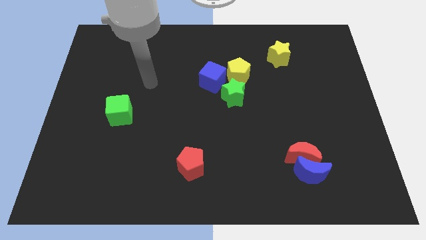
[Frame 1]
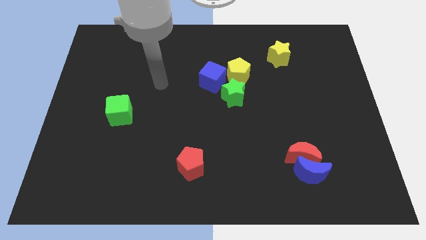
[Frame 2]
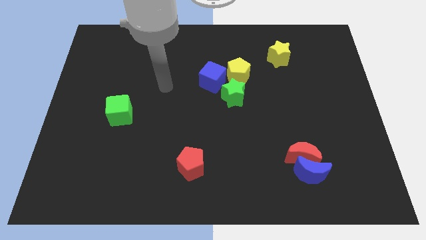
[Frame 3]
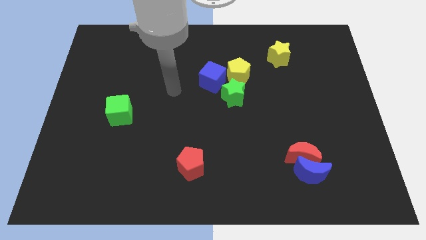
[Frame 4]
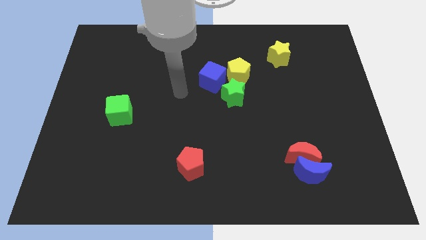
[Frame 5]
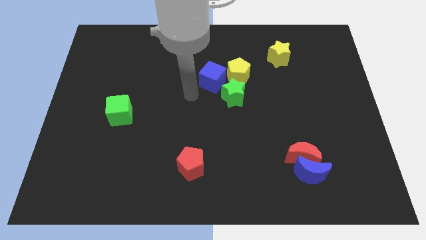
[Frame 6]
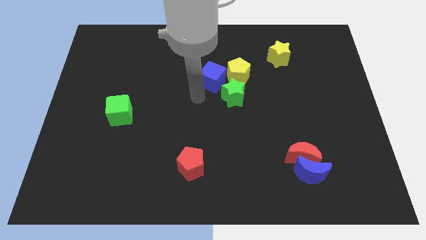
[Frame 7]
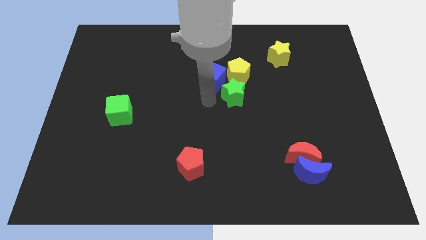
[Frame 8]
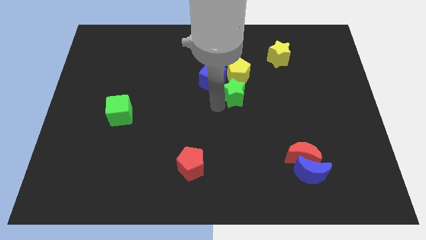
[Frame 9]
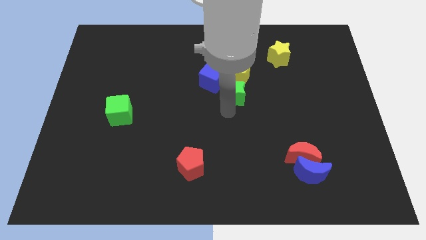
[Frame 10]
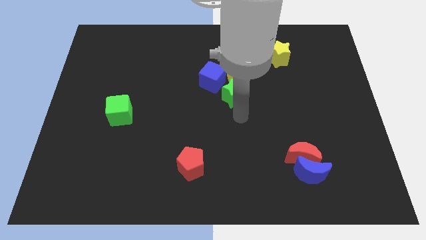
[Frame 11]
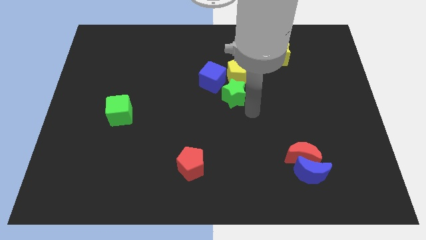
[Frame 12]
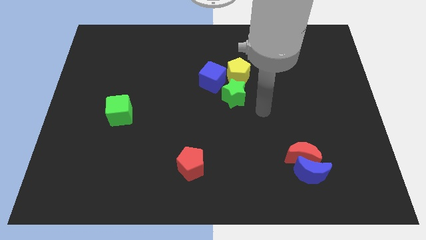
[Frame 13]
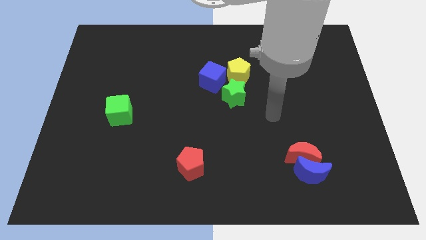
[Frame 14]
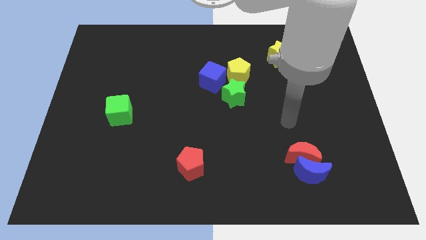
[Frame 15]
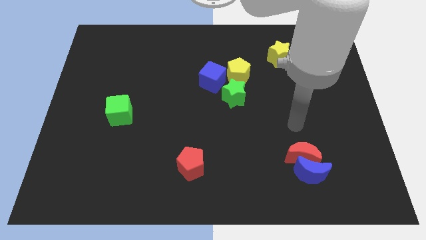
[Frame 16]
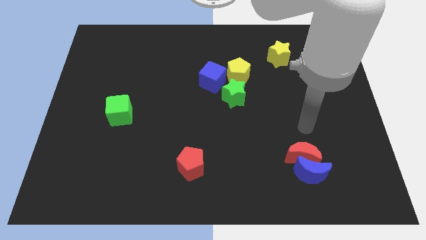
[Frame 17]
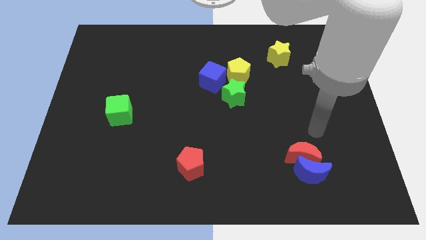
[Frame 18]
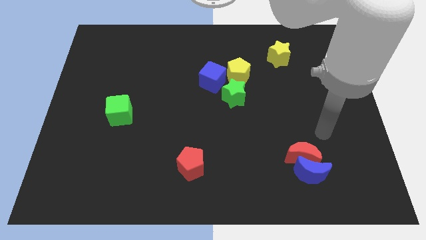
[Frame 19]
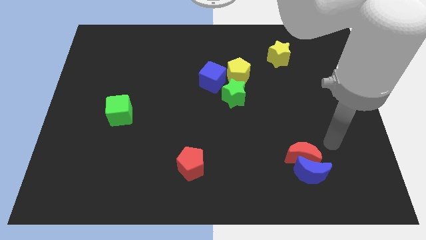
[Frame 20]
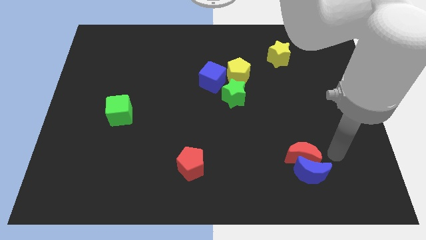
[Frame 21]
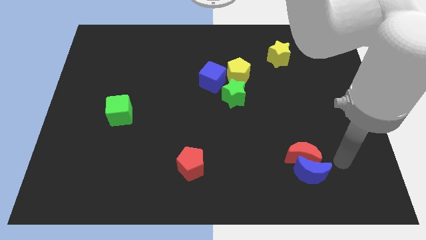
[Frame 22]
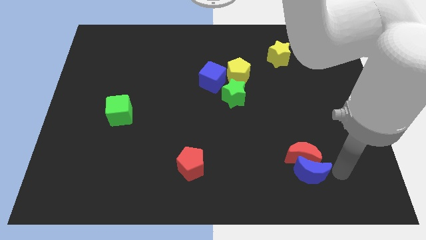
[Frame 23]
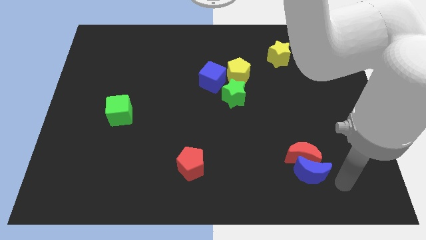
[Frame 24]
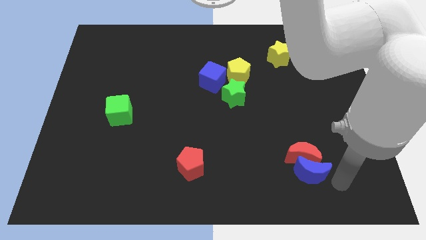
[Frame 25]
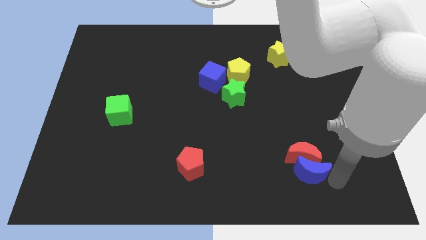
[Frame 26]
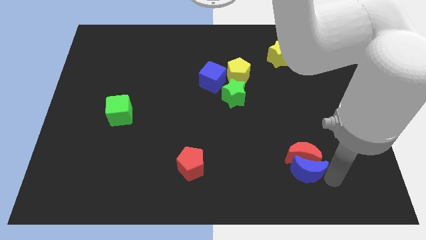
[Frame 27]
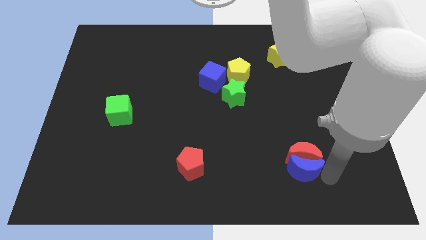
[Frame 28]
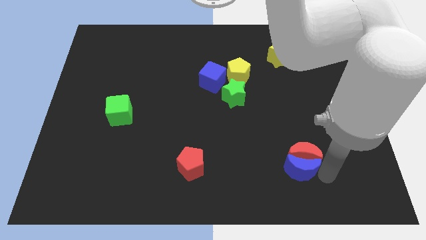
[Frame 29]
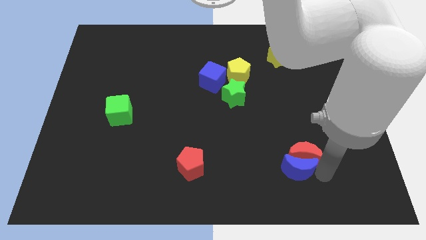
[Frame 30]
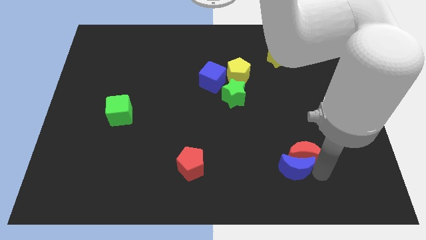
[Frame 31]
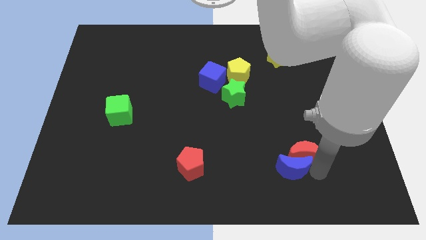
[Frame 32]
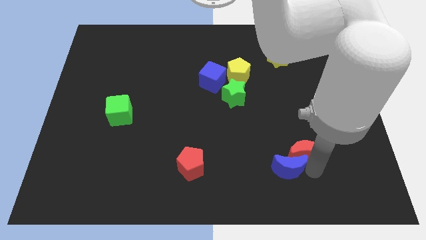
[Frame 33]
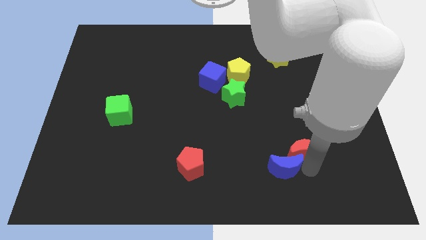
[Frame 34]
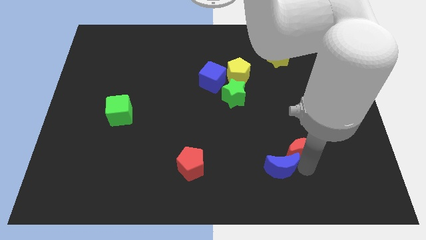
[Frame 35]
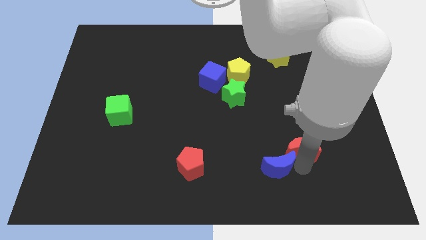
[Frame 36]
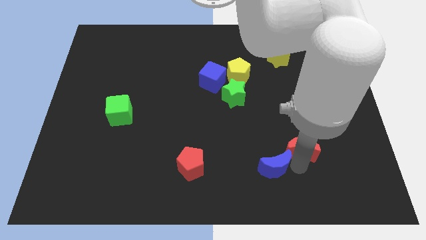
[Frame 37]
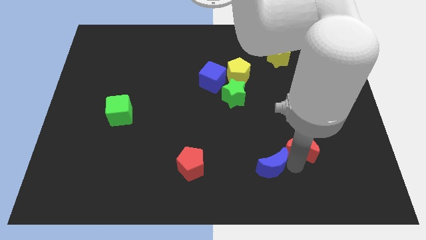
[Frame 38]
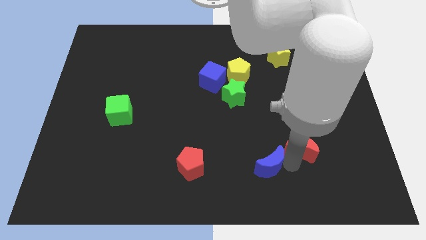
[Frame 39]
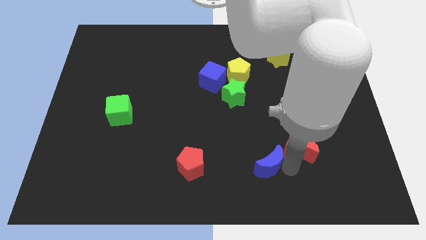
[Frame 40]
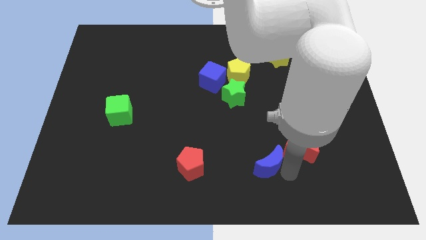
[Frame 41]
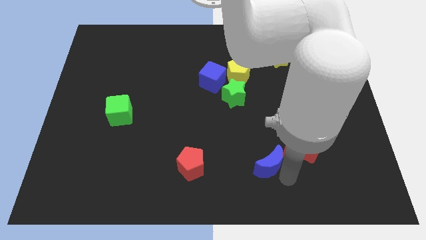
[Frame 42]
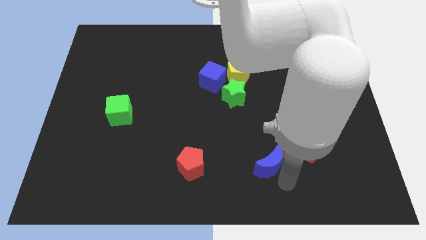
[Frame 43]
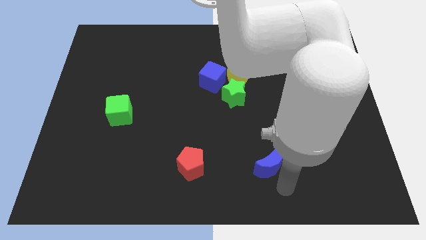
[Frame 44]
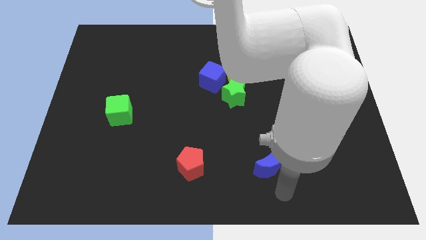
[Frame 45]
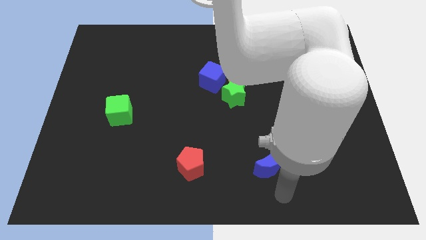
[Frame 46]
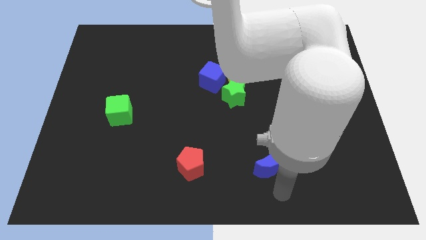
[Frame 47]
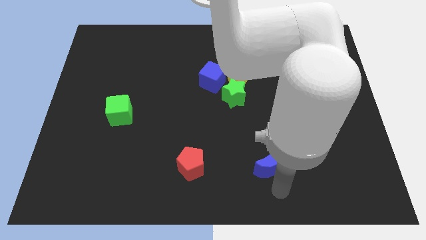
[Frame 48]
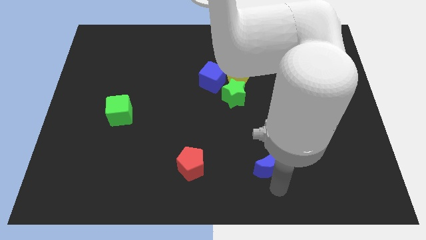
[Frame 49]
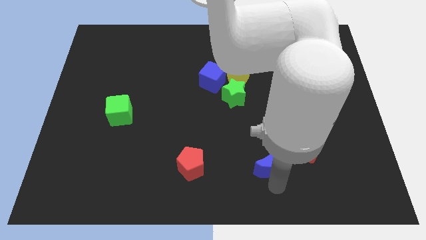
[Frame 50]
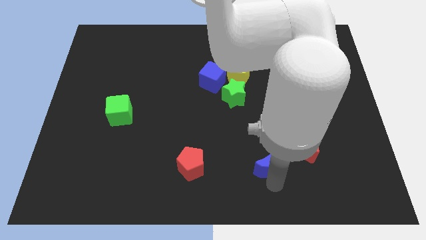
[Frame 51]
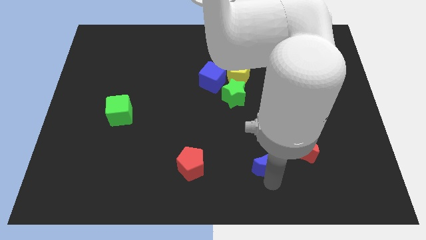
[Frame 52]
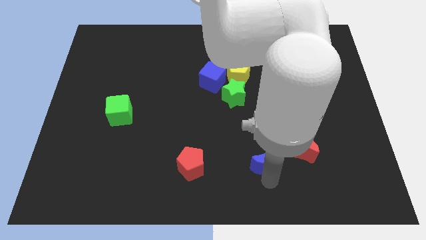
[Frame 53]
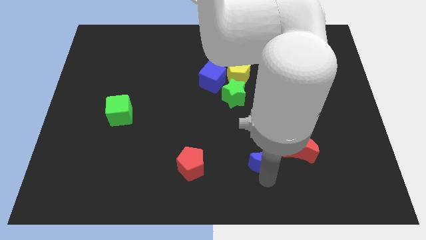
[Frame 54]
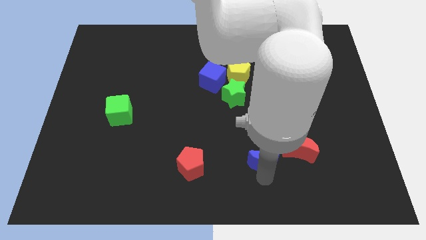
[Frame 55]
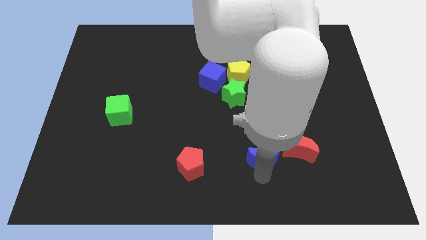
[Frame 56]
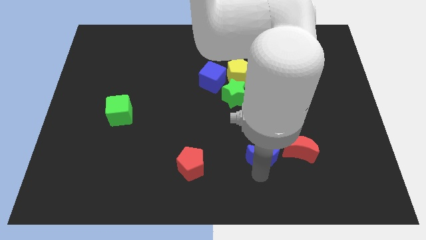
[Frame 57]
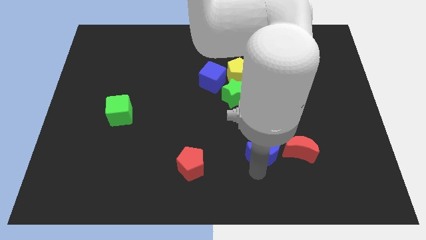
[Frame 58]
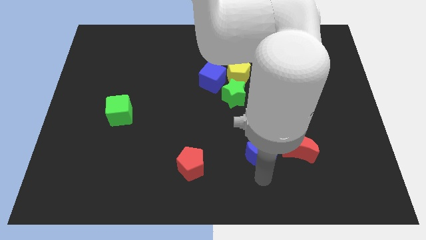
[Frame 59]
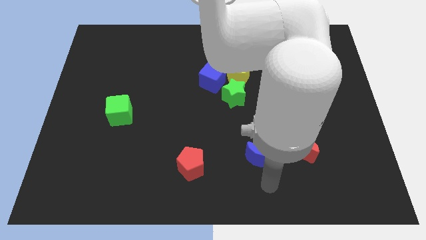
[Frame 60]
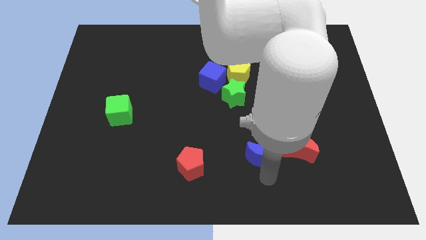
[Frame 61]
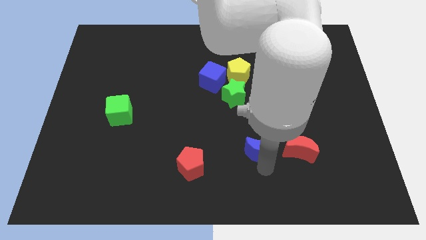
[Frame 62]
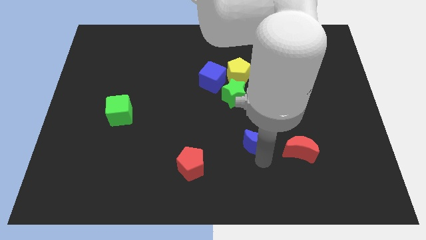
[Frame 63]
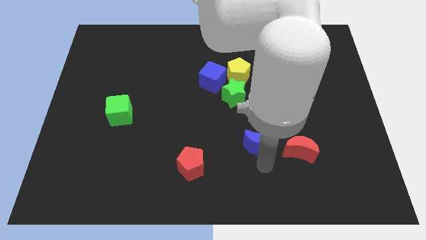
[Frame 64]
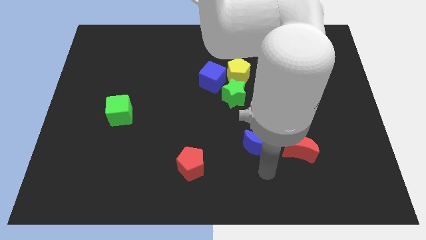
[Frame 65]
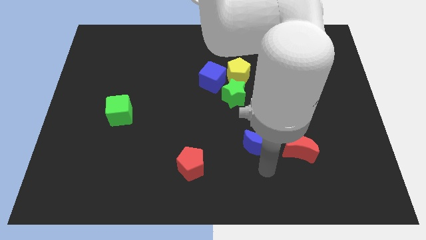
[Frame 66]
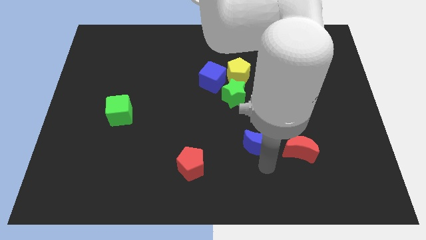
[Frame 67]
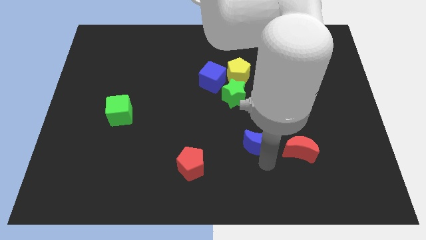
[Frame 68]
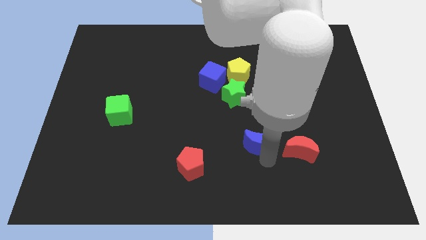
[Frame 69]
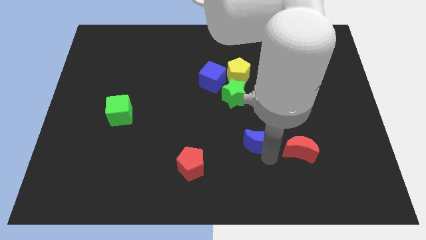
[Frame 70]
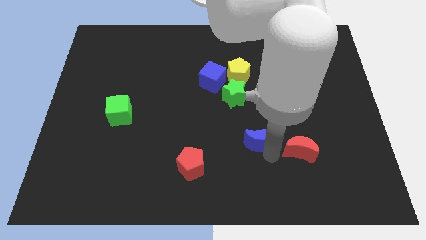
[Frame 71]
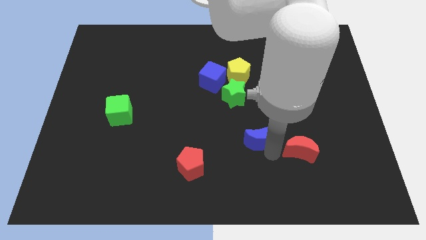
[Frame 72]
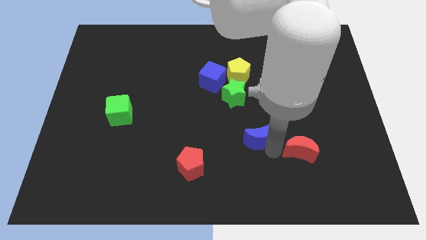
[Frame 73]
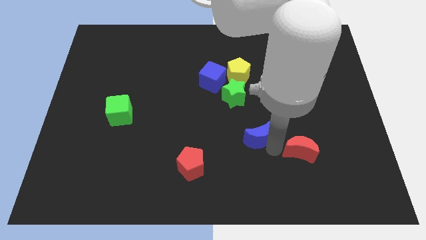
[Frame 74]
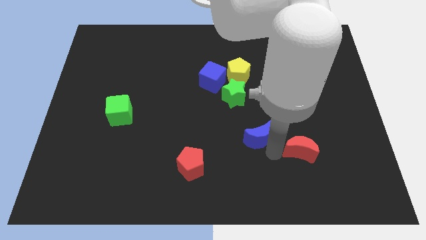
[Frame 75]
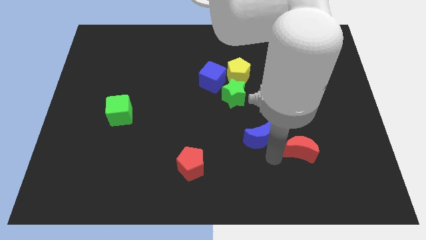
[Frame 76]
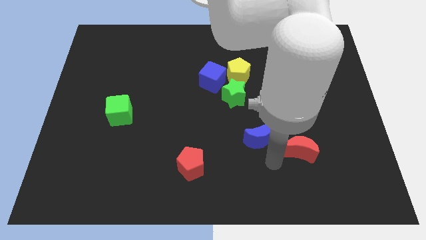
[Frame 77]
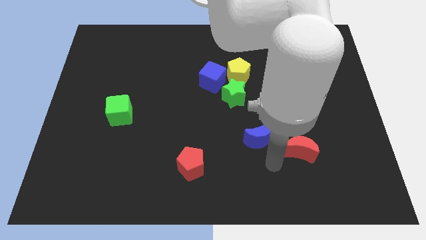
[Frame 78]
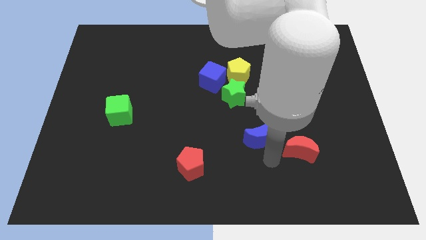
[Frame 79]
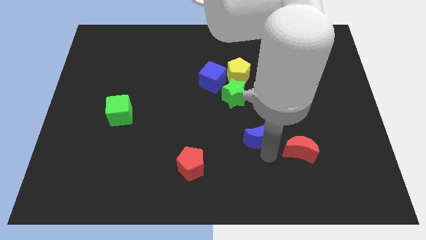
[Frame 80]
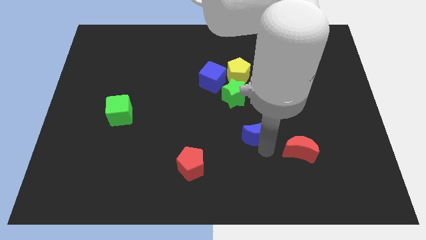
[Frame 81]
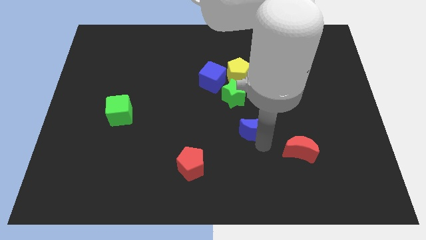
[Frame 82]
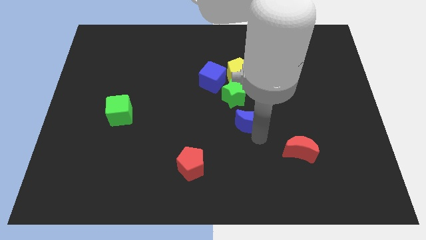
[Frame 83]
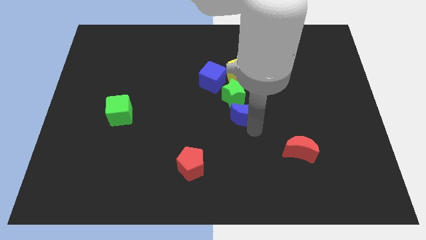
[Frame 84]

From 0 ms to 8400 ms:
move the blue moon to the green star
